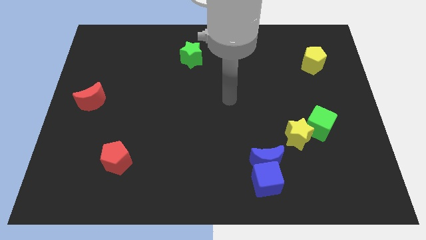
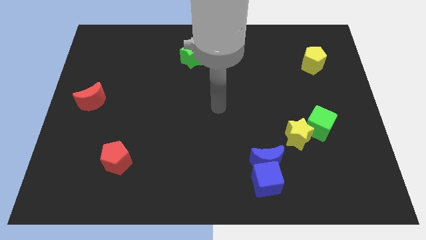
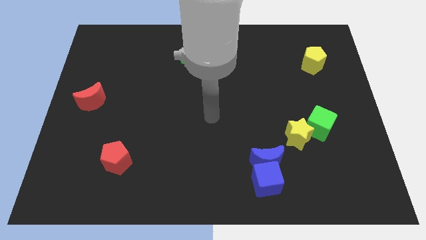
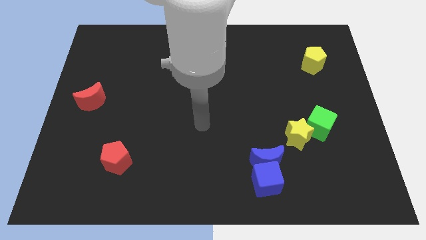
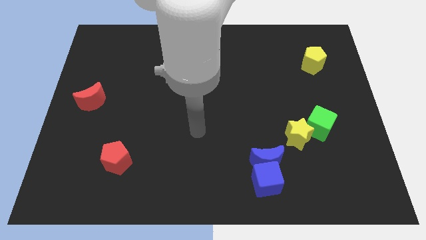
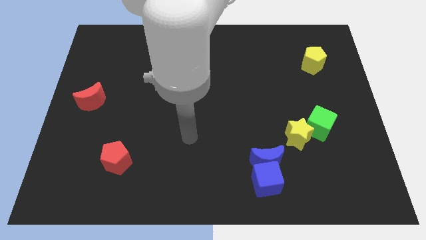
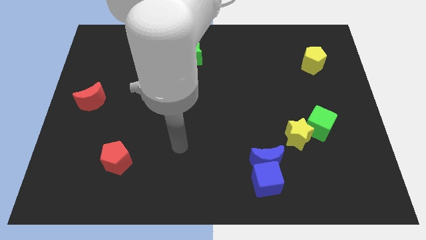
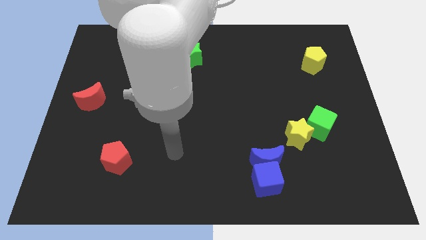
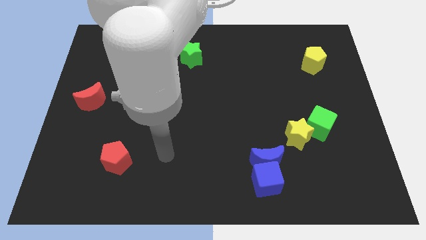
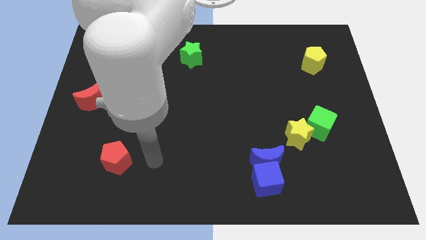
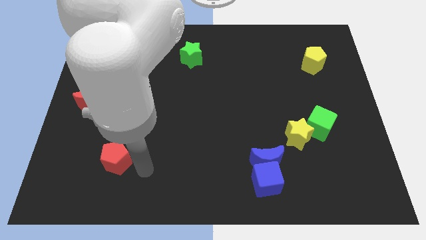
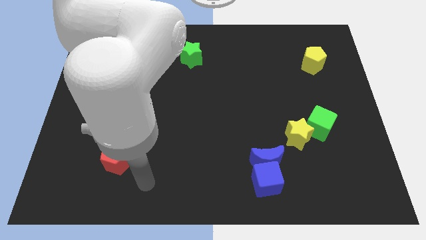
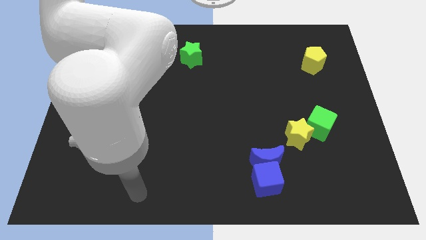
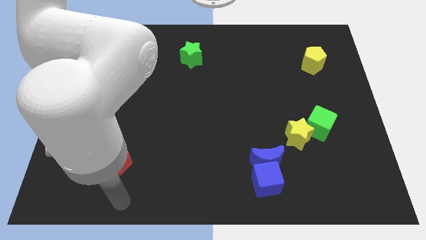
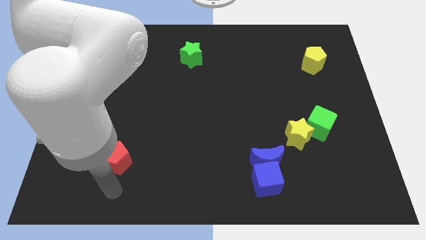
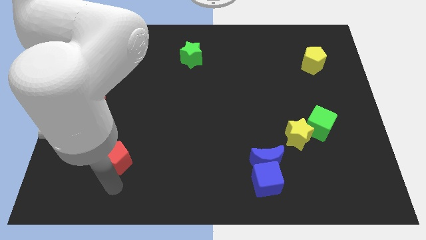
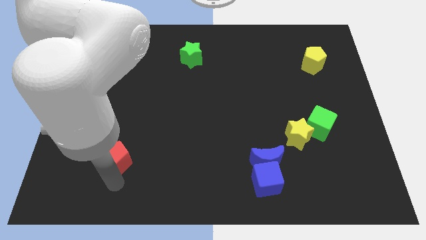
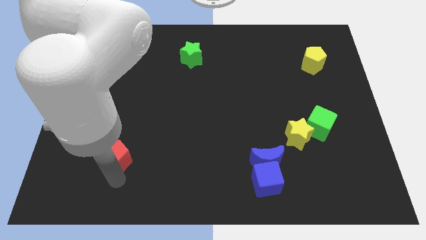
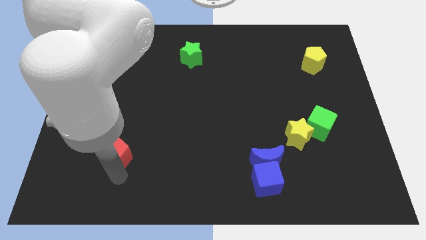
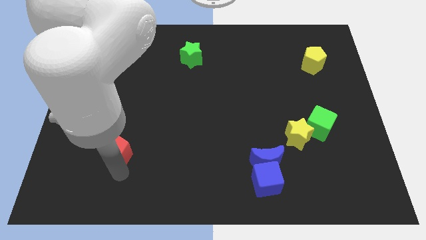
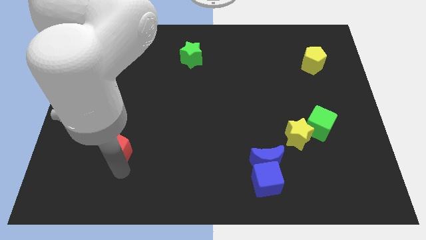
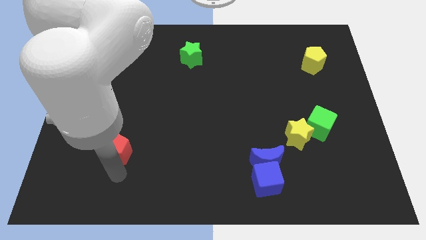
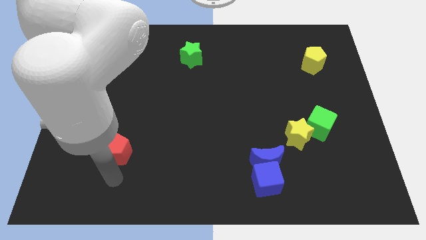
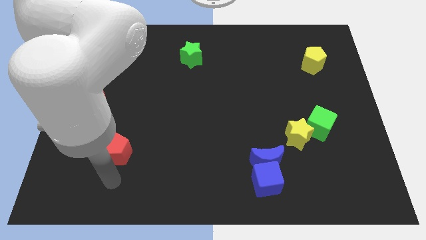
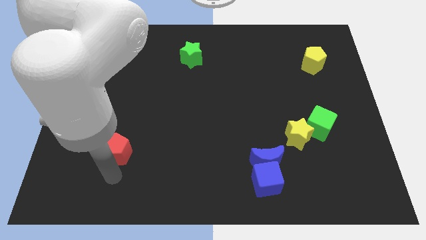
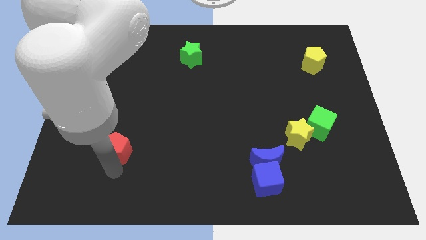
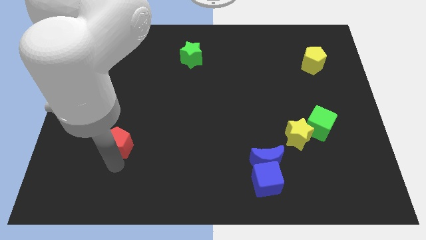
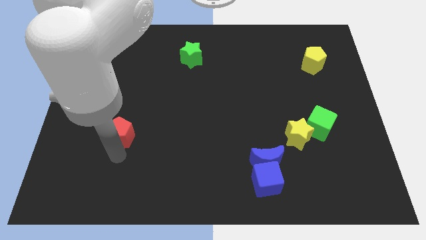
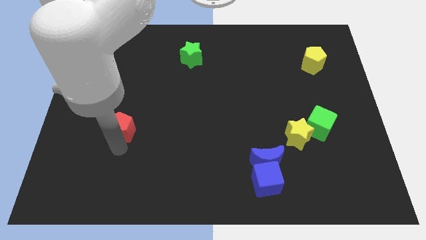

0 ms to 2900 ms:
move the red pentagon upwards a little bit

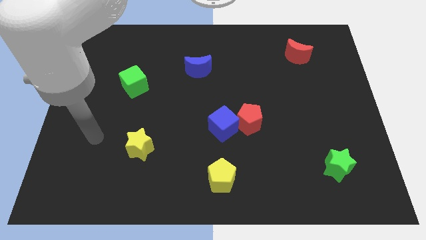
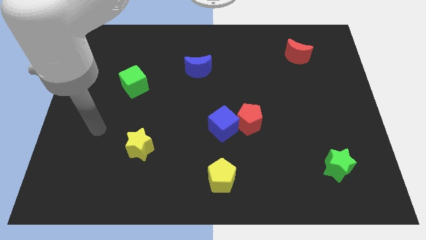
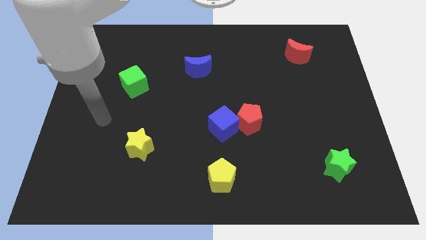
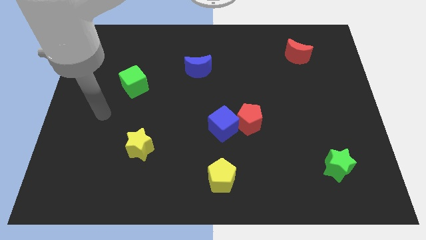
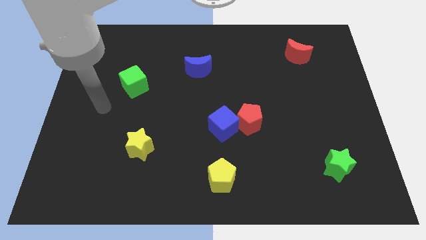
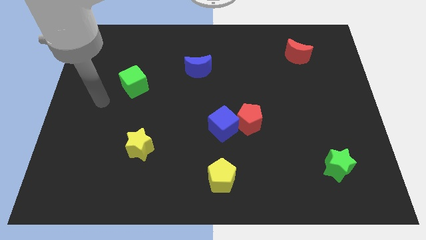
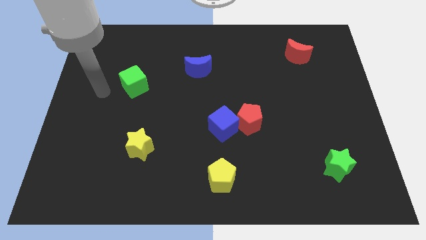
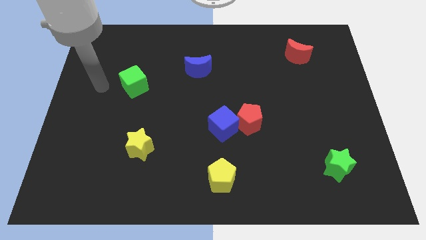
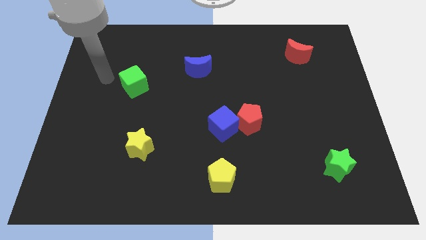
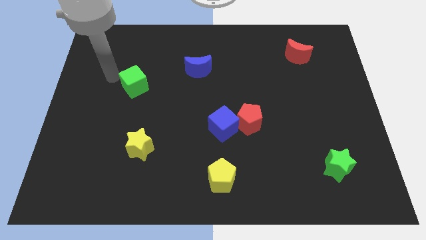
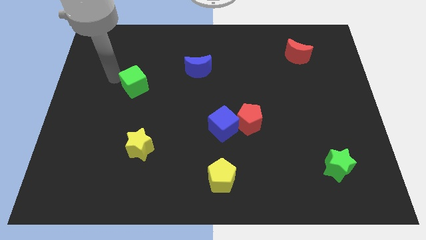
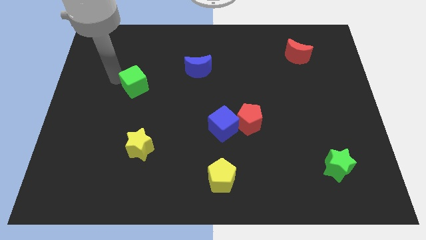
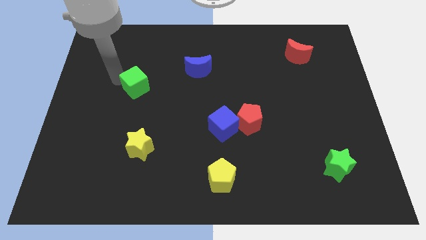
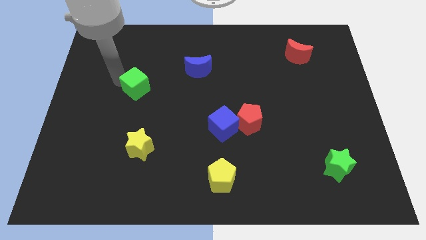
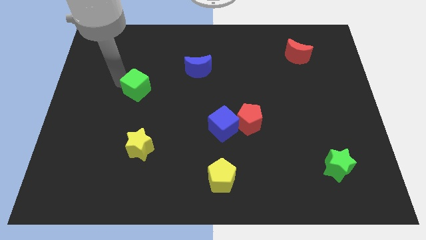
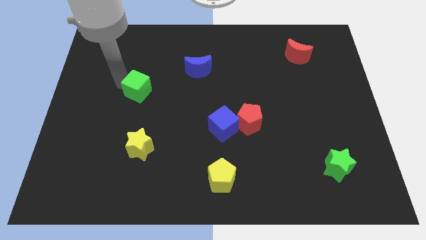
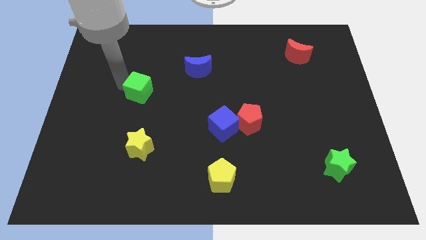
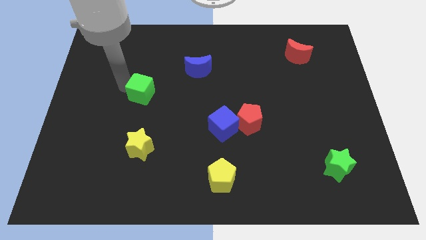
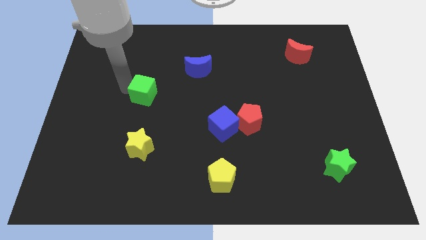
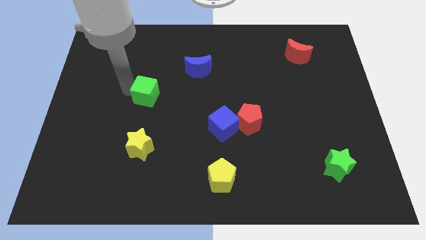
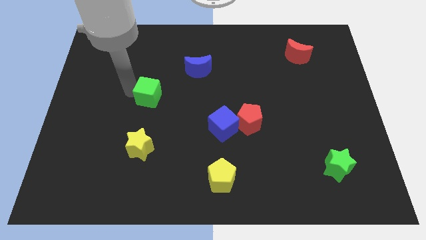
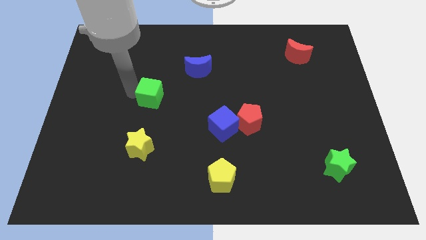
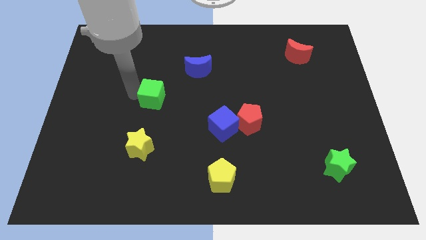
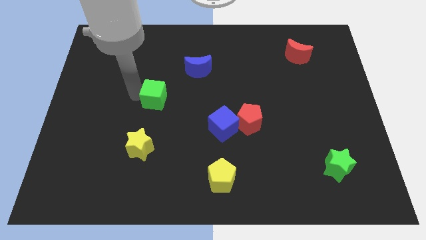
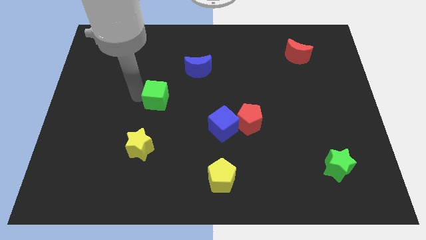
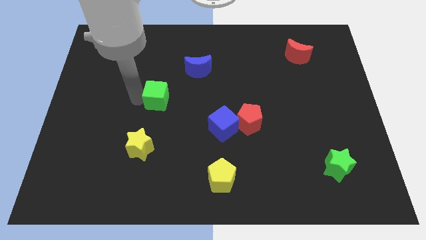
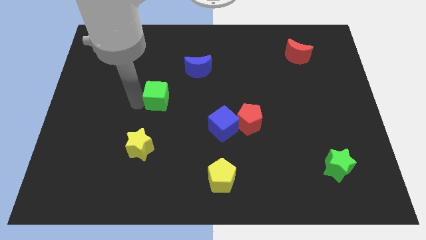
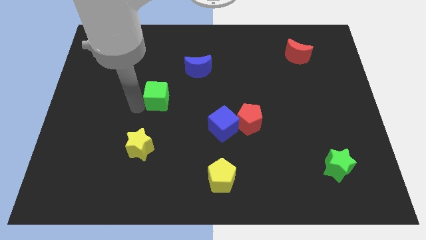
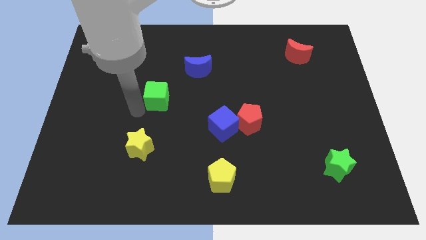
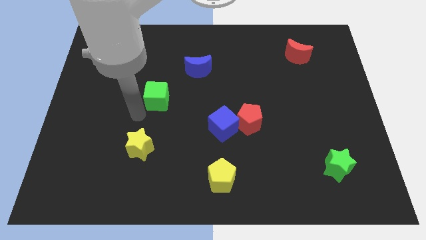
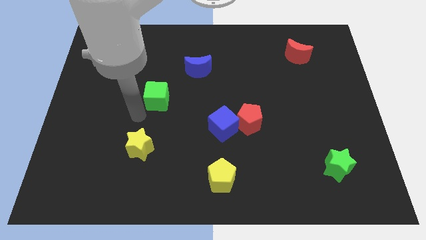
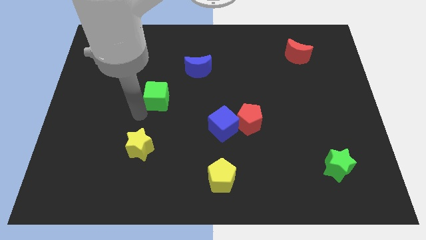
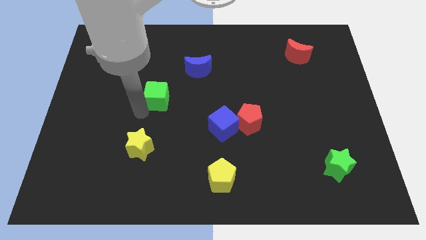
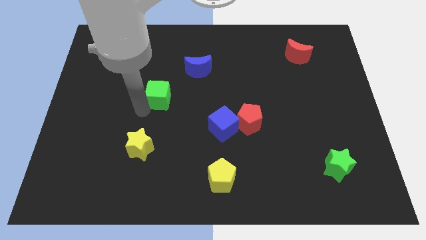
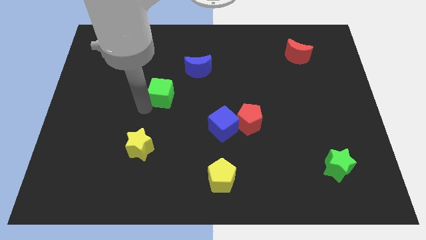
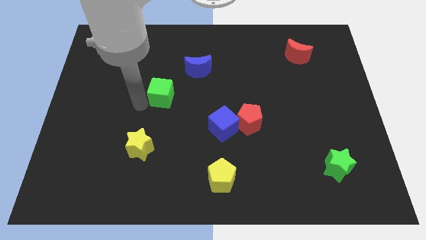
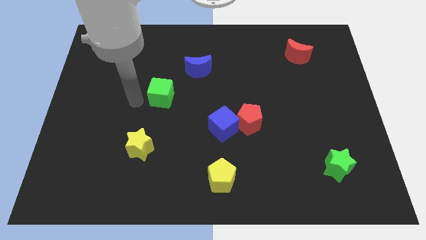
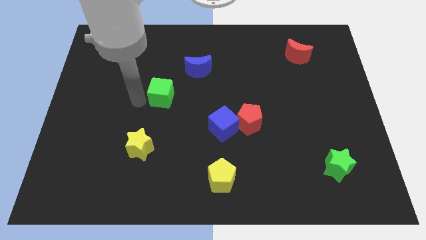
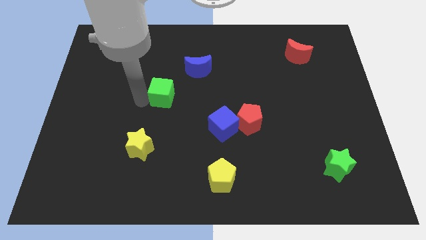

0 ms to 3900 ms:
slide the green cube to the right slightly

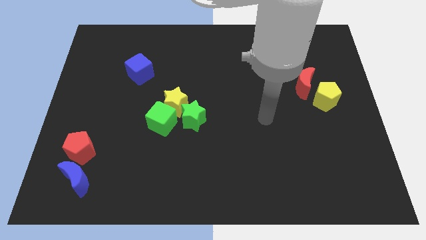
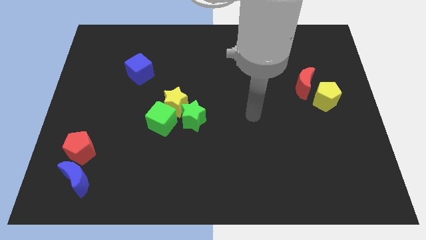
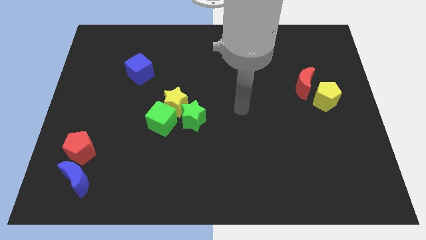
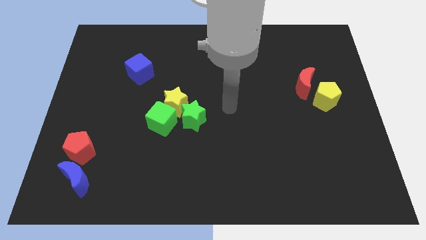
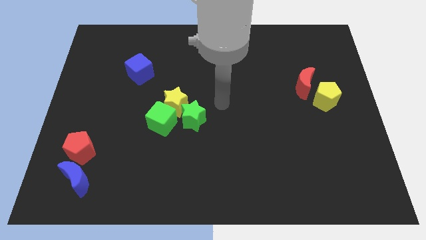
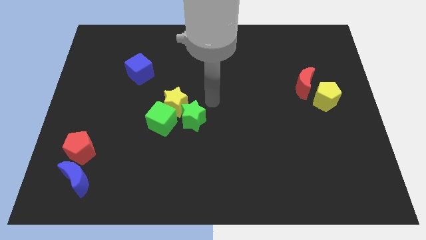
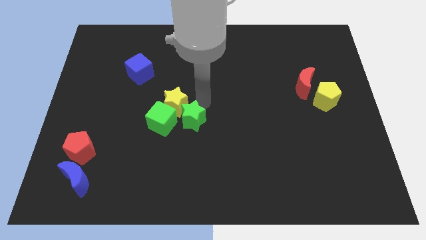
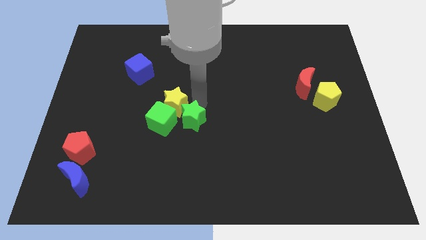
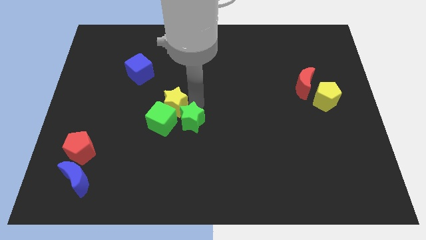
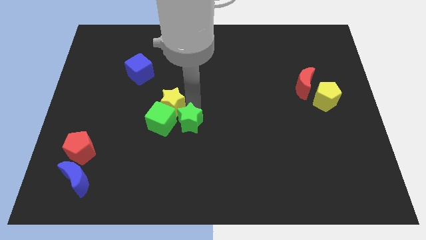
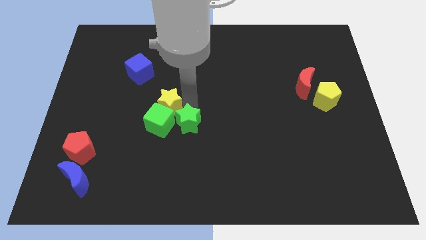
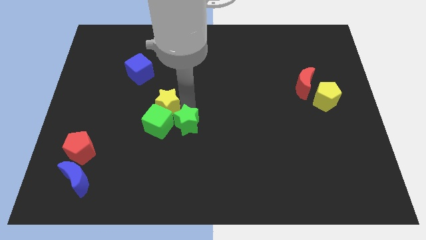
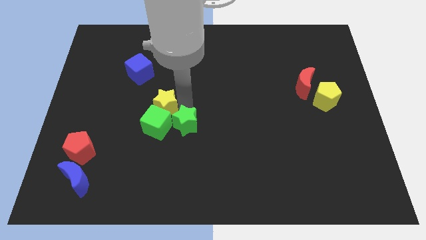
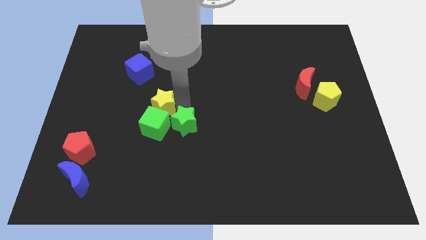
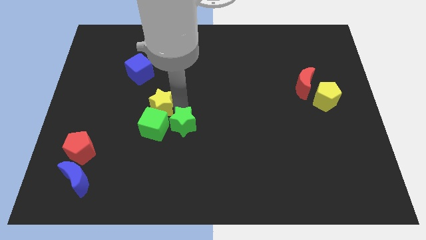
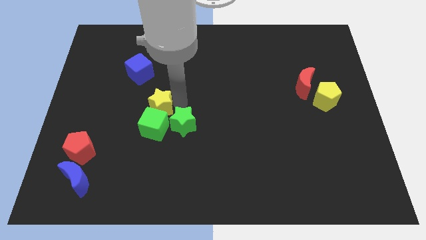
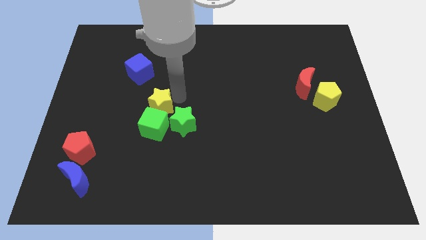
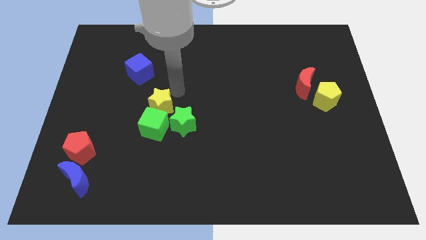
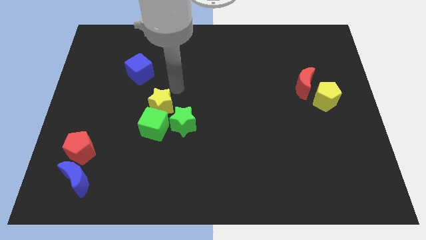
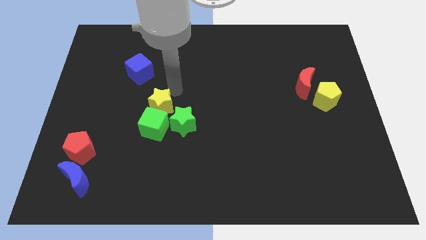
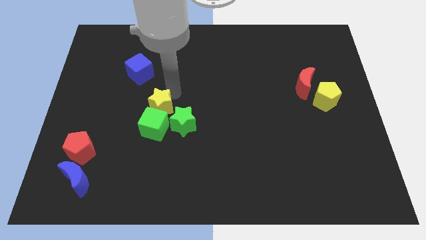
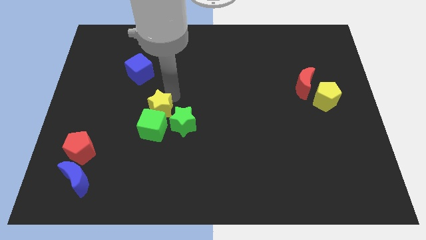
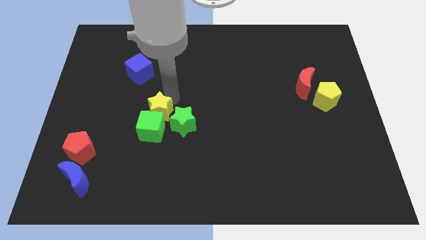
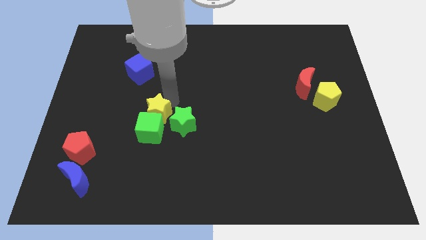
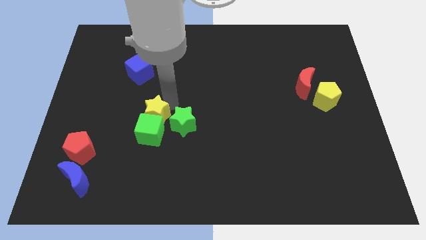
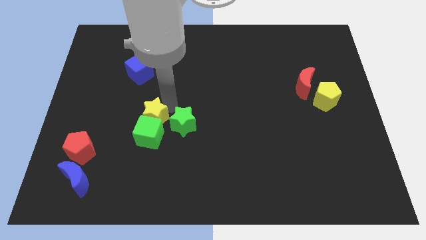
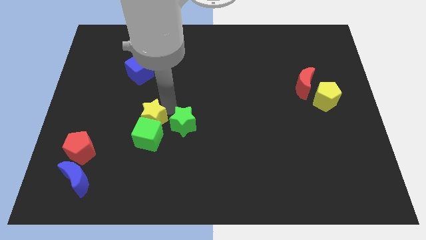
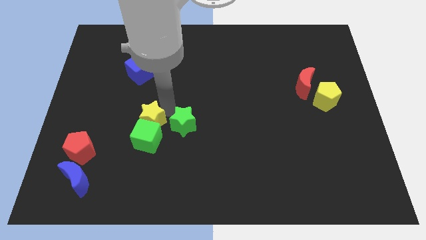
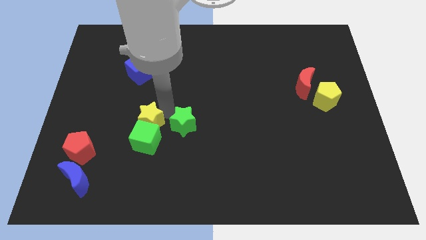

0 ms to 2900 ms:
slightly slide the yellow star diagonally downwards and to the left
